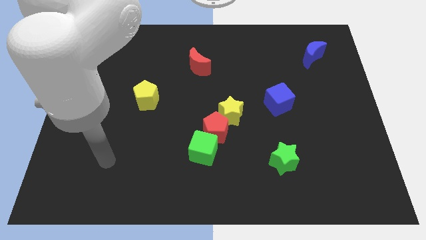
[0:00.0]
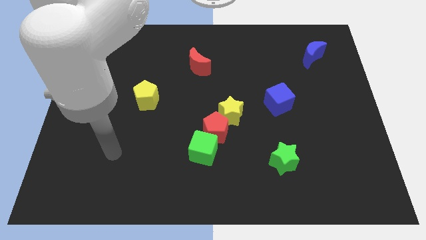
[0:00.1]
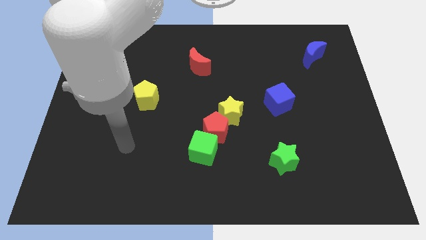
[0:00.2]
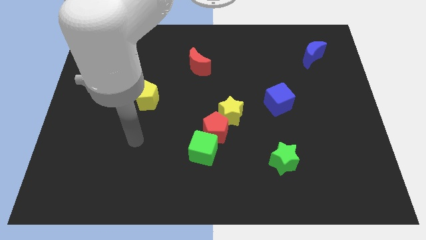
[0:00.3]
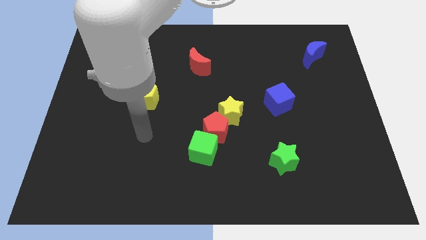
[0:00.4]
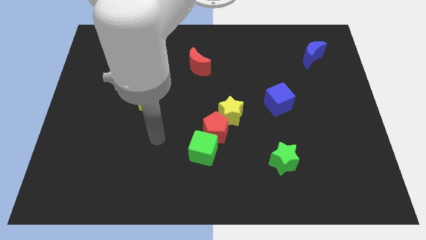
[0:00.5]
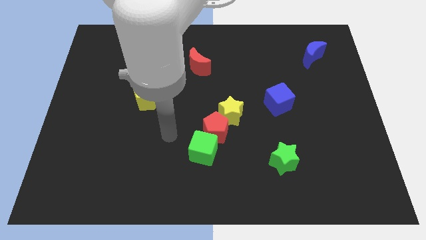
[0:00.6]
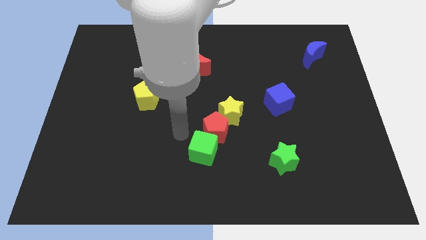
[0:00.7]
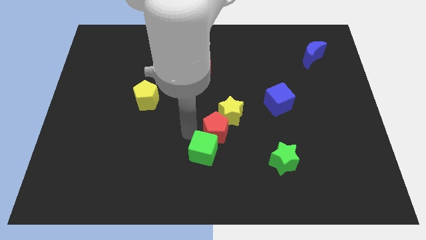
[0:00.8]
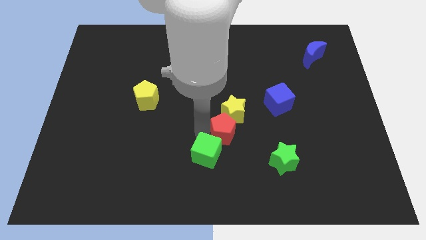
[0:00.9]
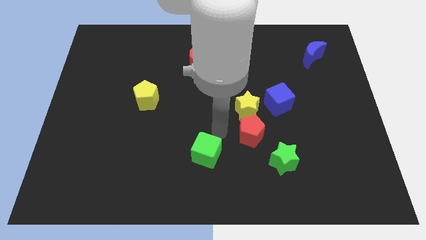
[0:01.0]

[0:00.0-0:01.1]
move the green cube away from the red pentagon

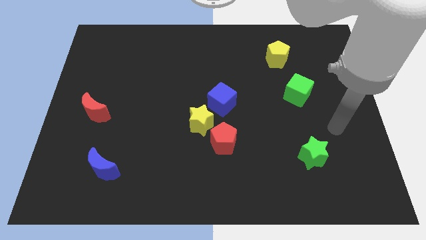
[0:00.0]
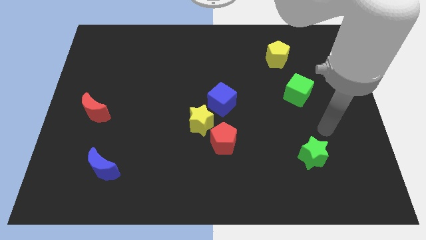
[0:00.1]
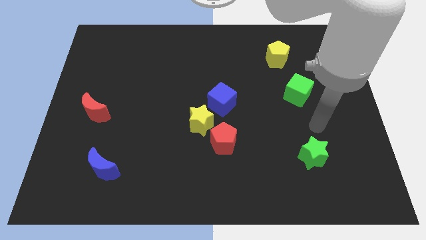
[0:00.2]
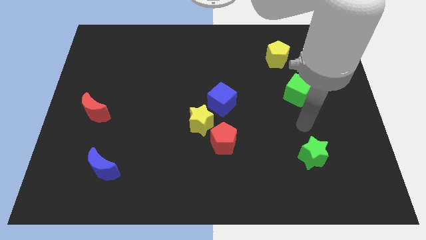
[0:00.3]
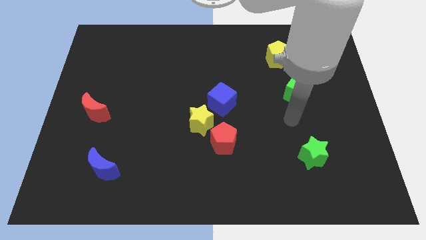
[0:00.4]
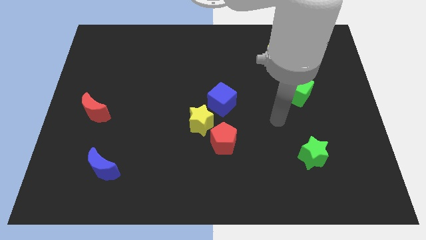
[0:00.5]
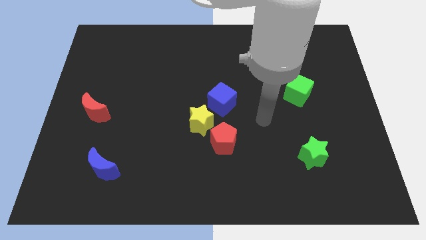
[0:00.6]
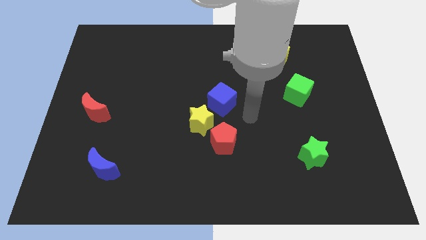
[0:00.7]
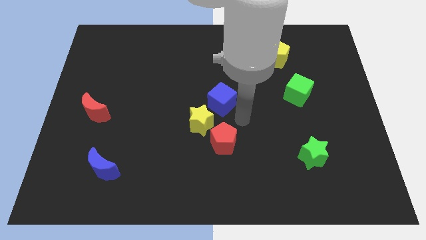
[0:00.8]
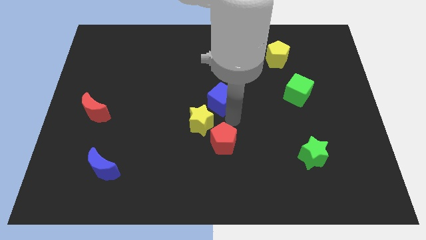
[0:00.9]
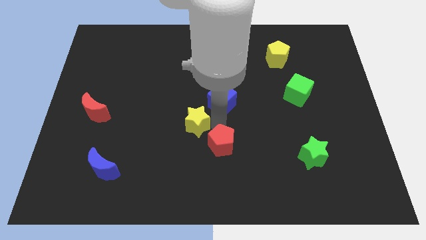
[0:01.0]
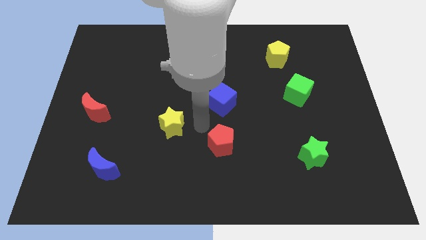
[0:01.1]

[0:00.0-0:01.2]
move the red pentagon away from the yellow star

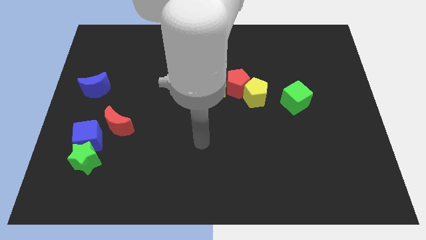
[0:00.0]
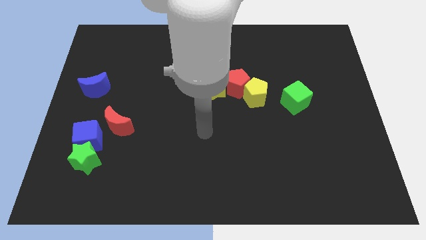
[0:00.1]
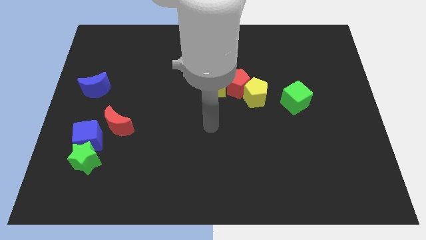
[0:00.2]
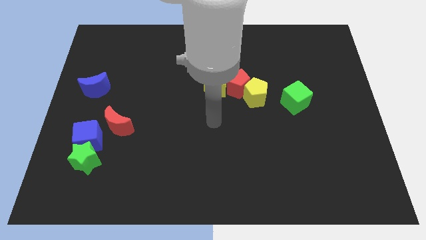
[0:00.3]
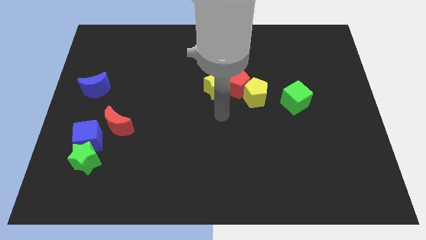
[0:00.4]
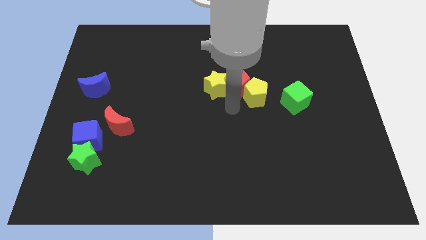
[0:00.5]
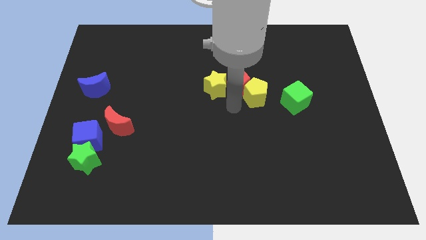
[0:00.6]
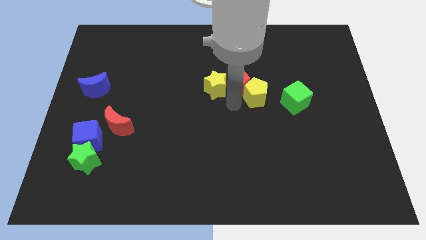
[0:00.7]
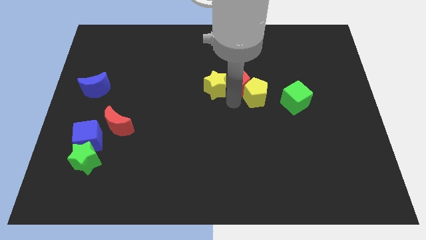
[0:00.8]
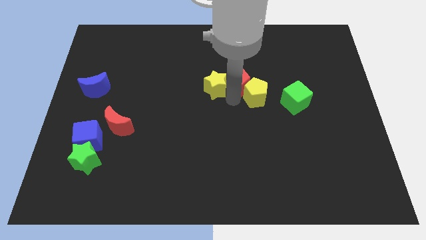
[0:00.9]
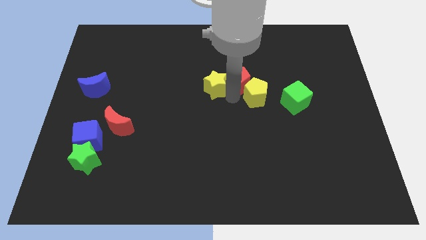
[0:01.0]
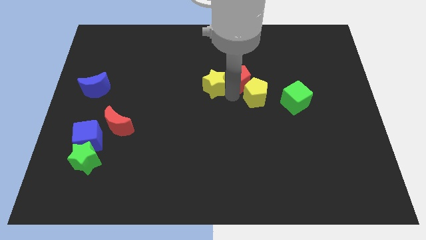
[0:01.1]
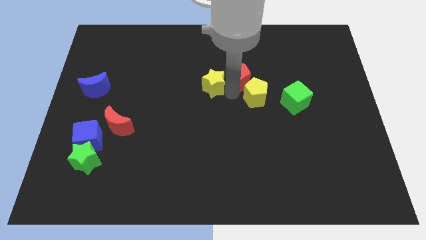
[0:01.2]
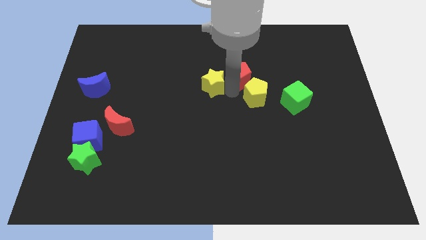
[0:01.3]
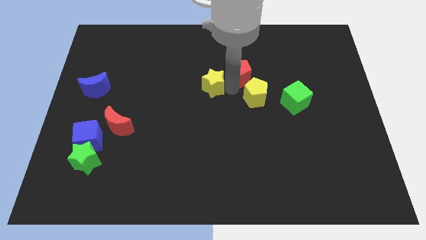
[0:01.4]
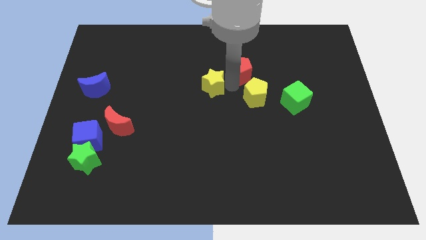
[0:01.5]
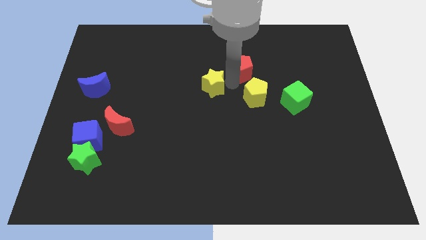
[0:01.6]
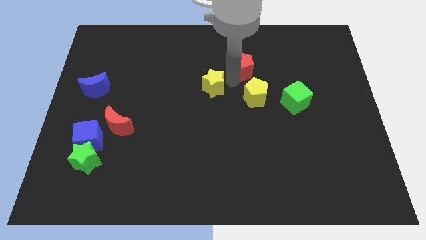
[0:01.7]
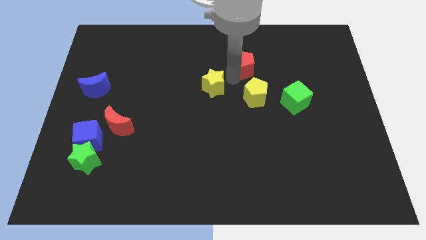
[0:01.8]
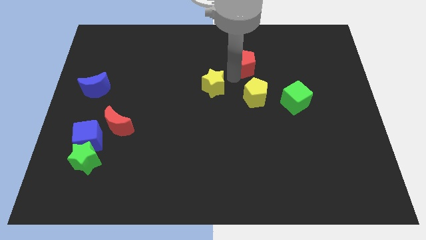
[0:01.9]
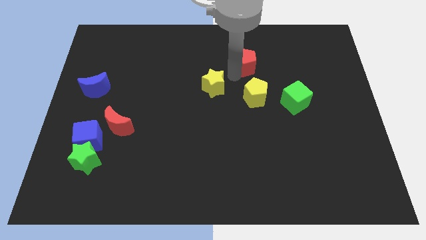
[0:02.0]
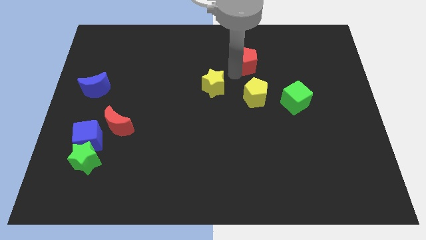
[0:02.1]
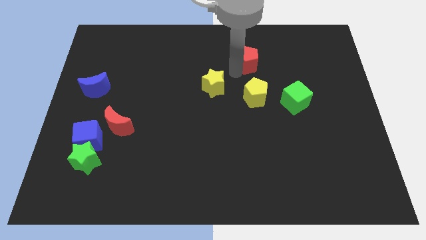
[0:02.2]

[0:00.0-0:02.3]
move the red pentagon away from the yellow pentagon and yellow star

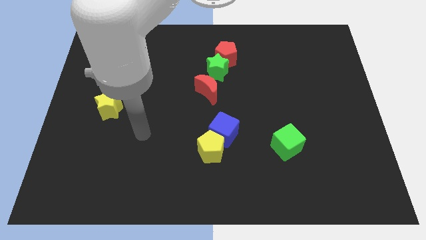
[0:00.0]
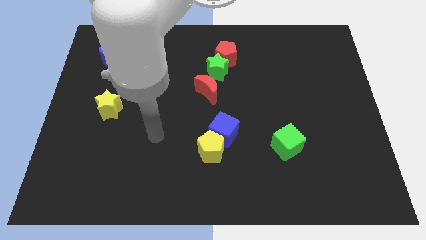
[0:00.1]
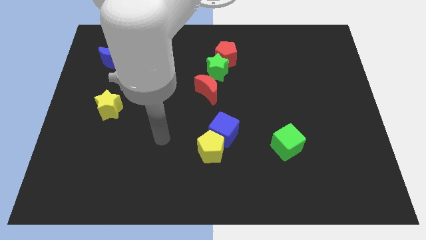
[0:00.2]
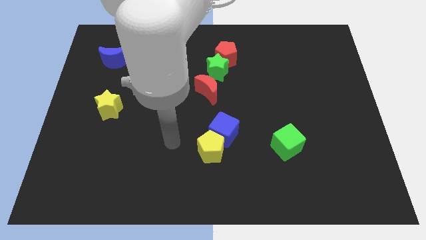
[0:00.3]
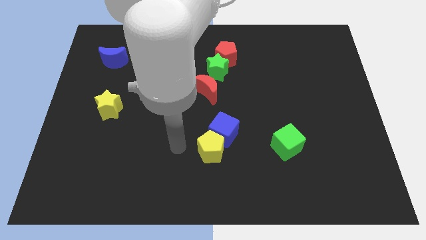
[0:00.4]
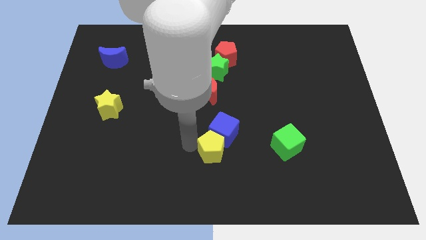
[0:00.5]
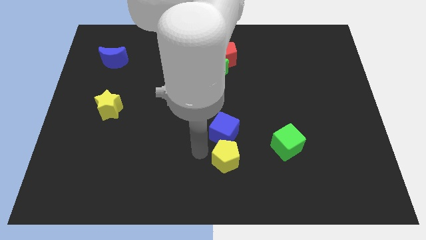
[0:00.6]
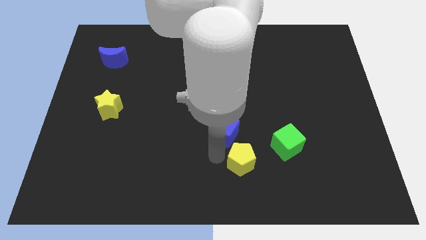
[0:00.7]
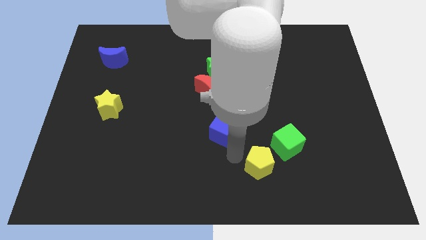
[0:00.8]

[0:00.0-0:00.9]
separate the blue cube from the yellow pentagon

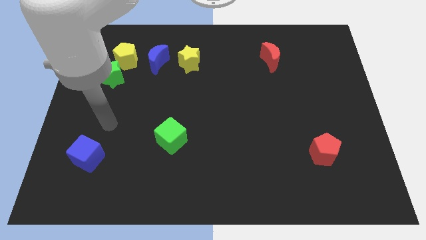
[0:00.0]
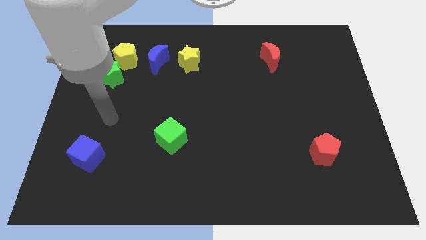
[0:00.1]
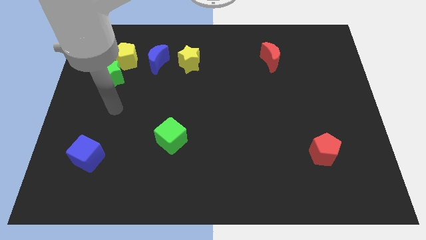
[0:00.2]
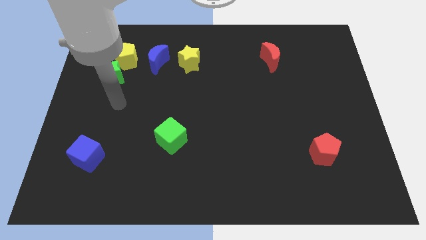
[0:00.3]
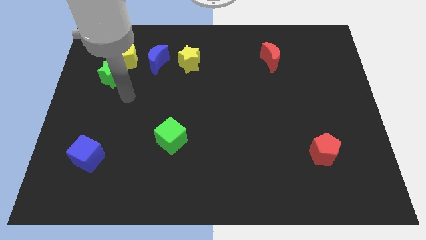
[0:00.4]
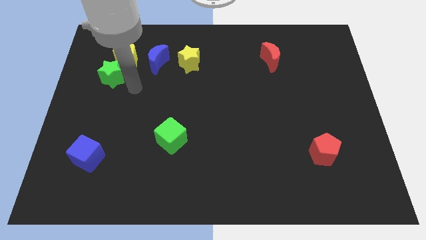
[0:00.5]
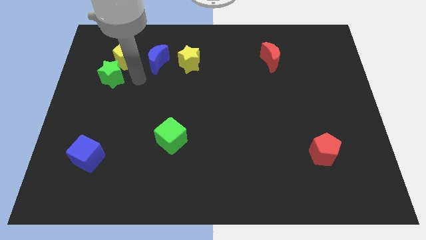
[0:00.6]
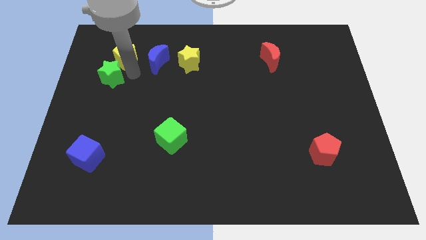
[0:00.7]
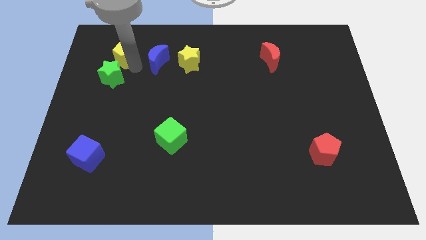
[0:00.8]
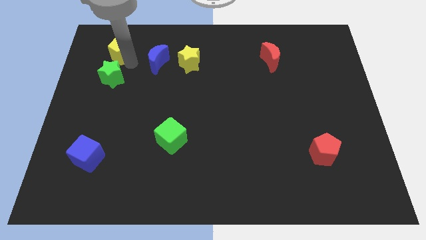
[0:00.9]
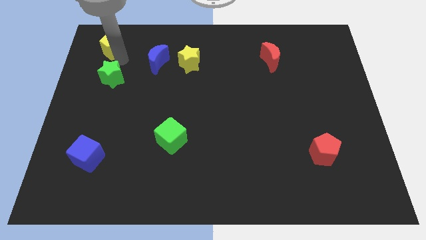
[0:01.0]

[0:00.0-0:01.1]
pull the green star apart from the yellow pentagon

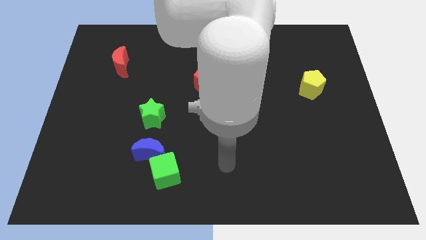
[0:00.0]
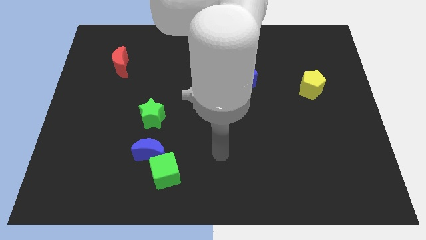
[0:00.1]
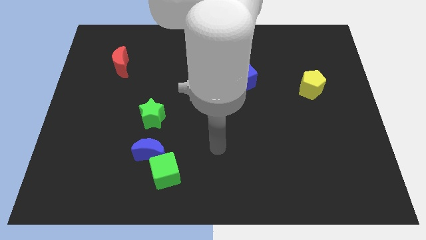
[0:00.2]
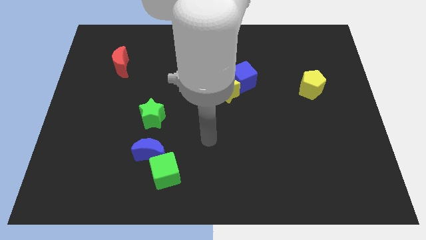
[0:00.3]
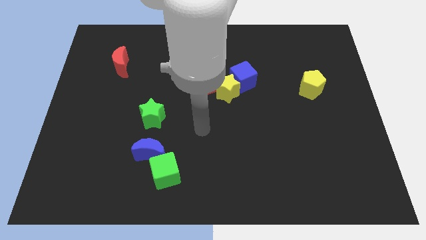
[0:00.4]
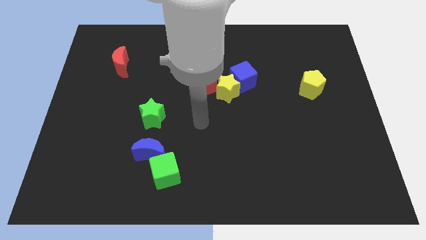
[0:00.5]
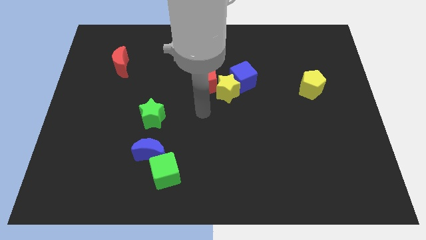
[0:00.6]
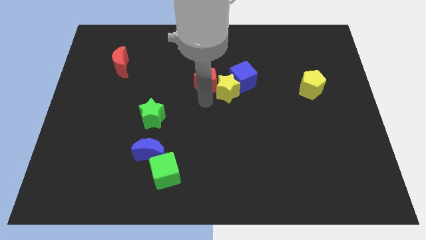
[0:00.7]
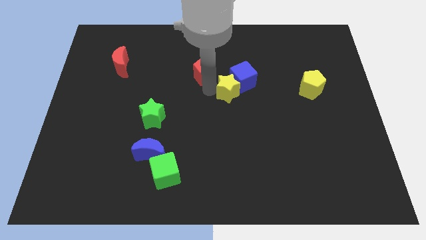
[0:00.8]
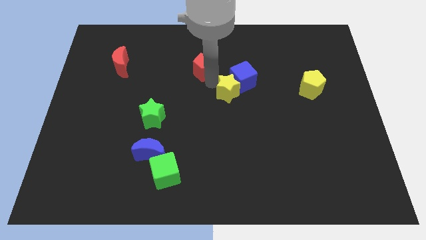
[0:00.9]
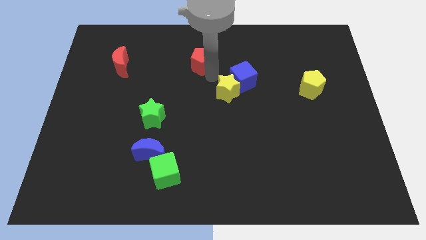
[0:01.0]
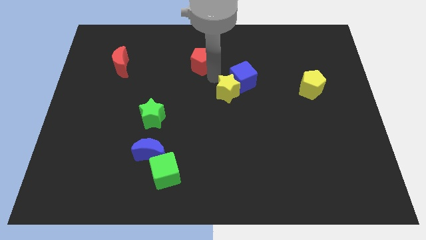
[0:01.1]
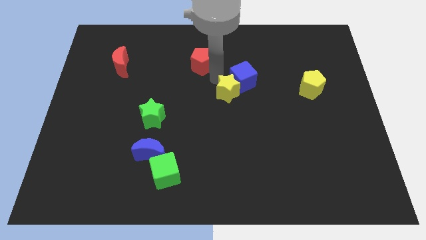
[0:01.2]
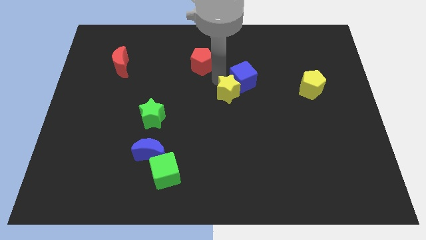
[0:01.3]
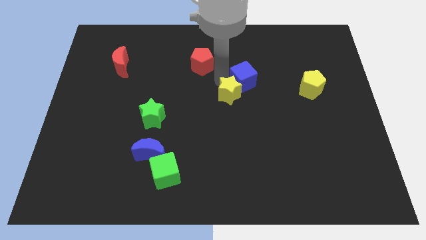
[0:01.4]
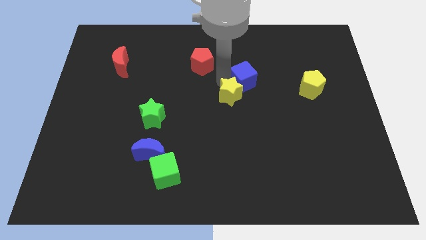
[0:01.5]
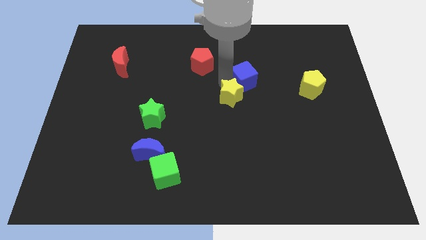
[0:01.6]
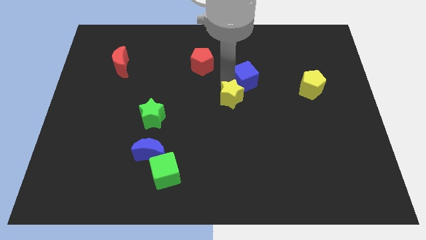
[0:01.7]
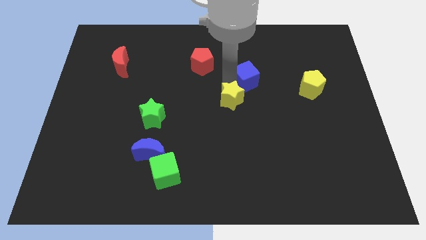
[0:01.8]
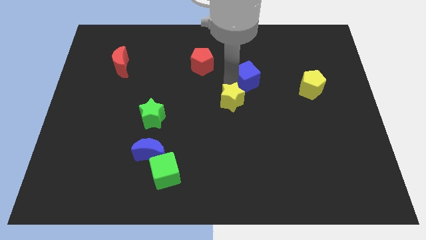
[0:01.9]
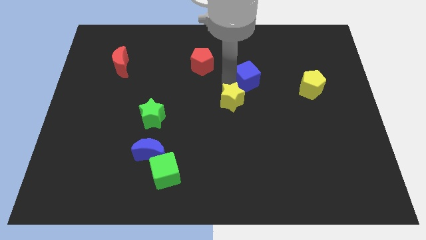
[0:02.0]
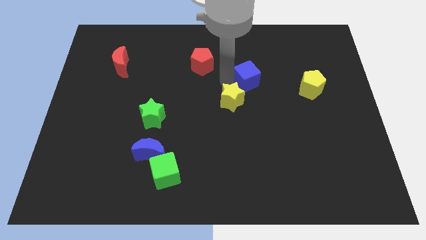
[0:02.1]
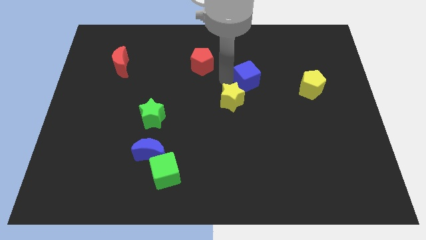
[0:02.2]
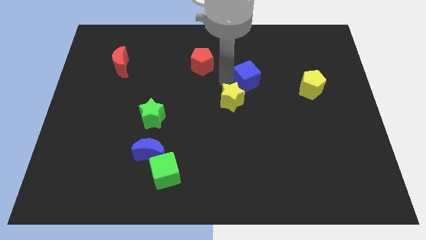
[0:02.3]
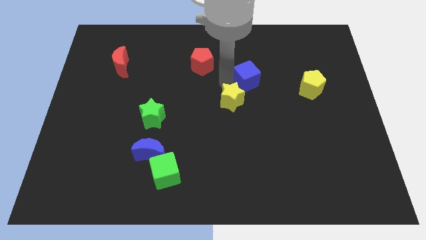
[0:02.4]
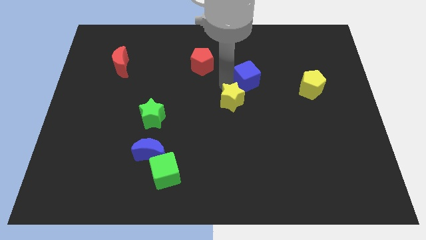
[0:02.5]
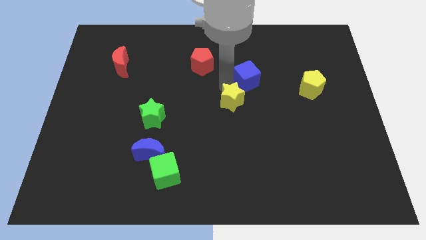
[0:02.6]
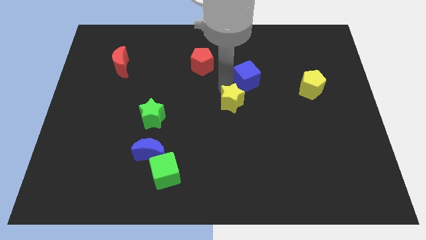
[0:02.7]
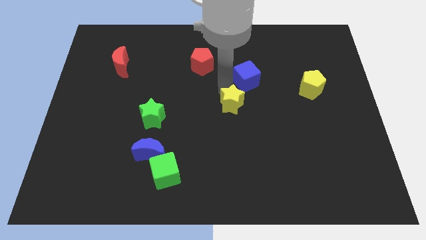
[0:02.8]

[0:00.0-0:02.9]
separate the yellow star from the blue cube and red pentagon
